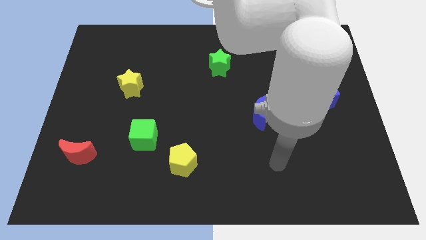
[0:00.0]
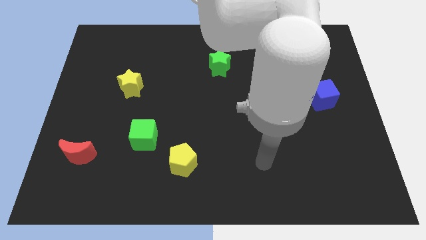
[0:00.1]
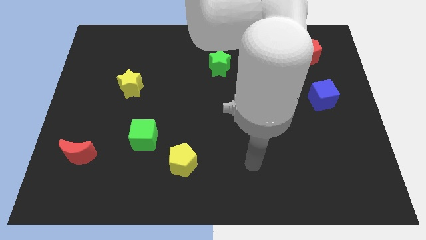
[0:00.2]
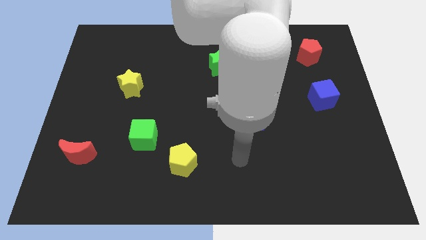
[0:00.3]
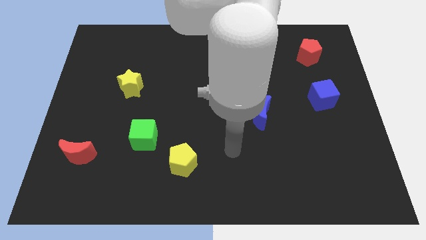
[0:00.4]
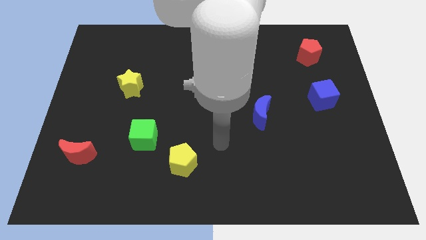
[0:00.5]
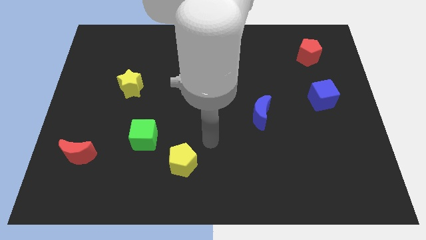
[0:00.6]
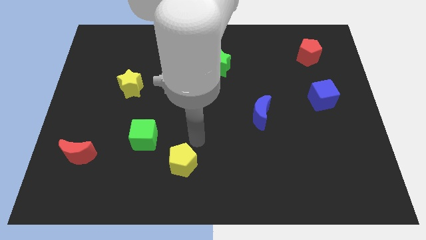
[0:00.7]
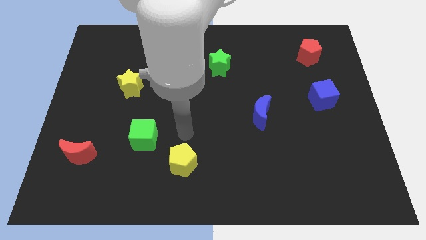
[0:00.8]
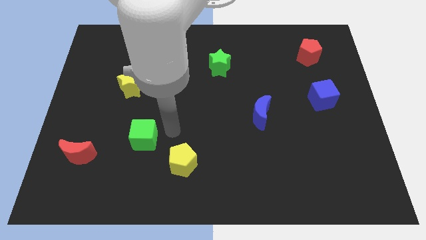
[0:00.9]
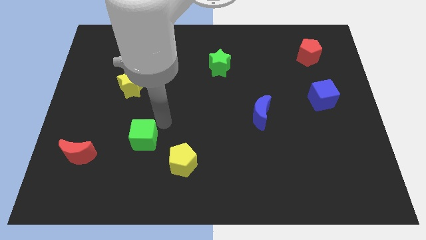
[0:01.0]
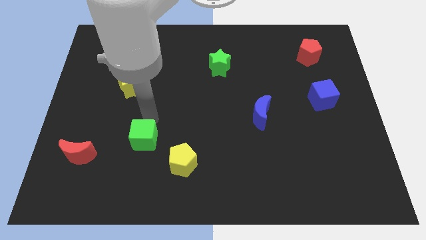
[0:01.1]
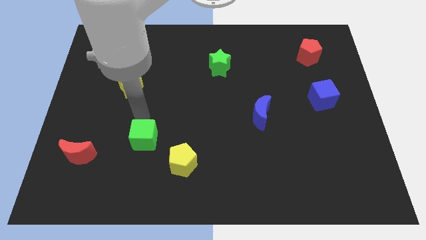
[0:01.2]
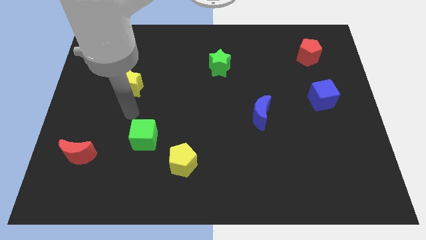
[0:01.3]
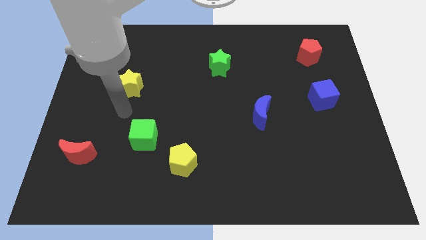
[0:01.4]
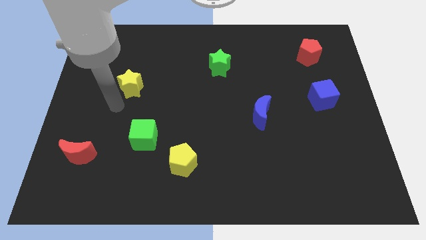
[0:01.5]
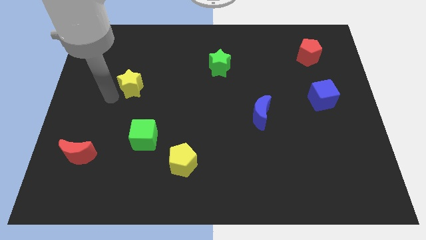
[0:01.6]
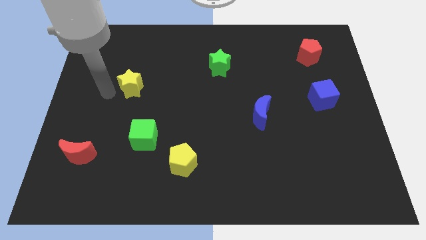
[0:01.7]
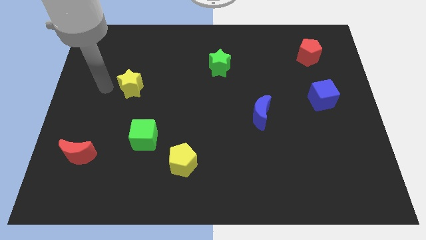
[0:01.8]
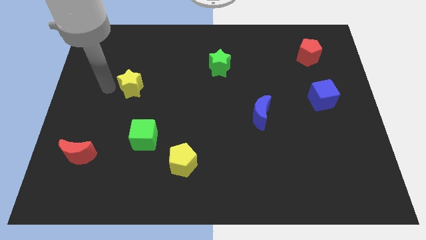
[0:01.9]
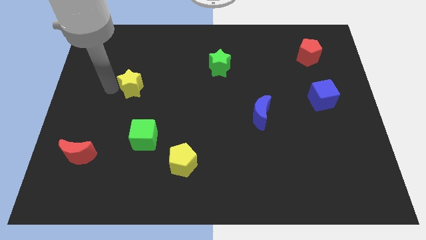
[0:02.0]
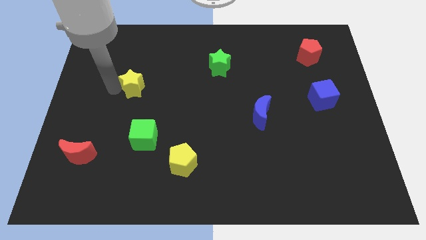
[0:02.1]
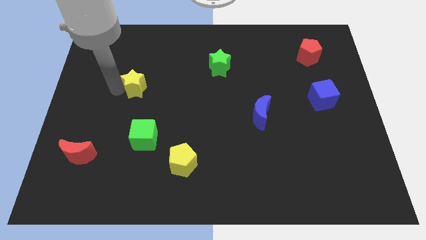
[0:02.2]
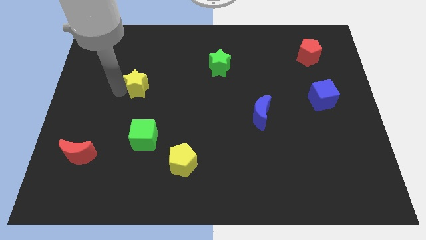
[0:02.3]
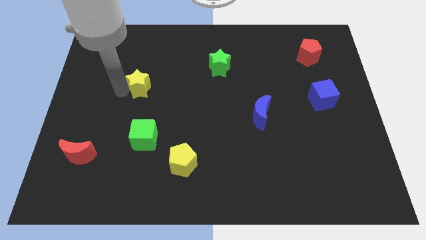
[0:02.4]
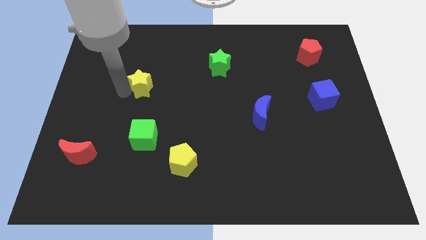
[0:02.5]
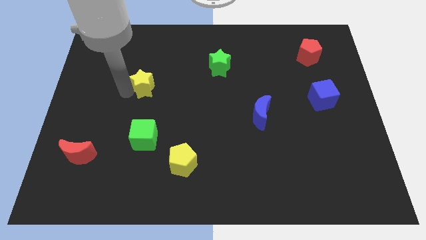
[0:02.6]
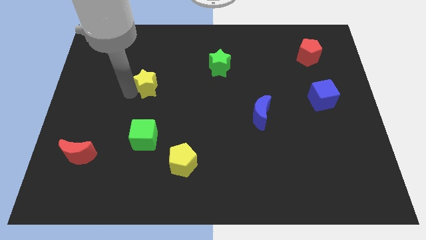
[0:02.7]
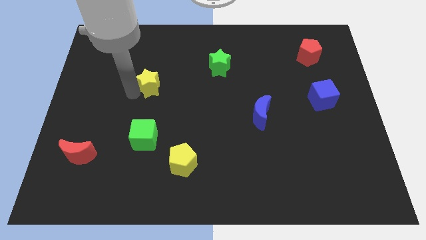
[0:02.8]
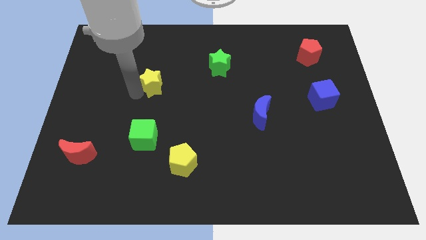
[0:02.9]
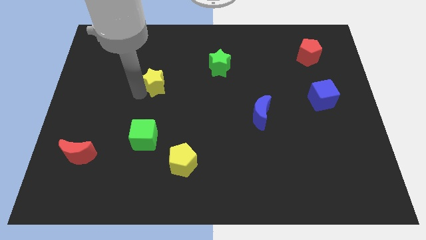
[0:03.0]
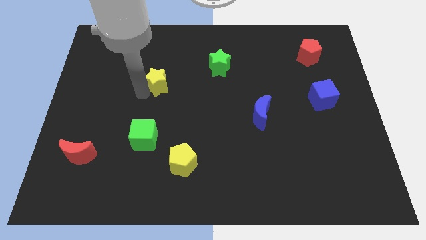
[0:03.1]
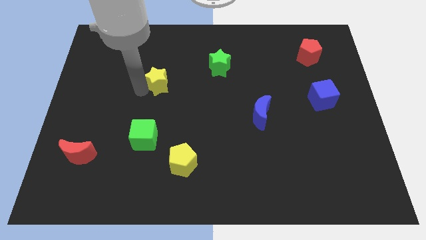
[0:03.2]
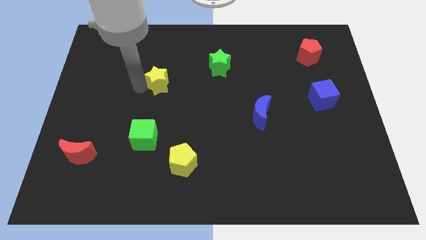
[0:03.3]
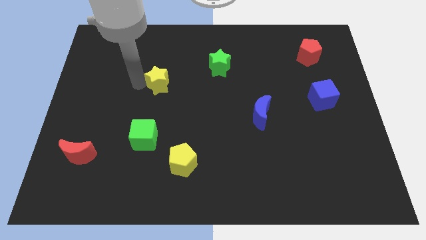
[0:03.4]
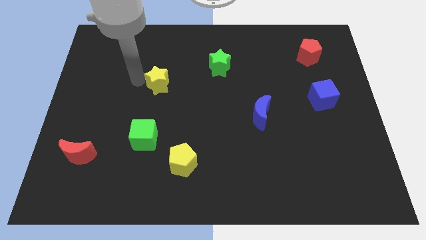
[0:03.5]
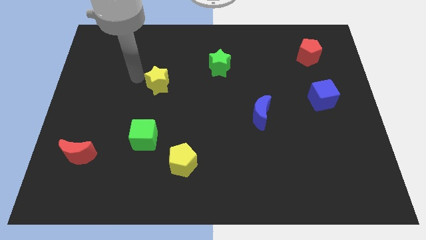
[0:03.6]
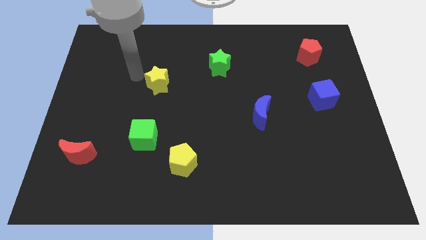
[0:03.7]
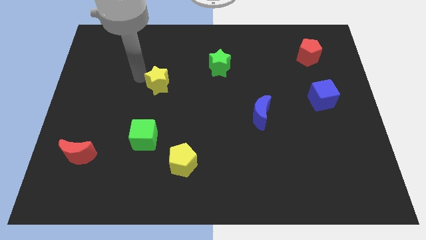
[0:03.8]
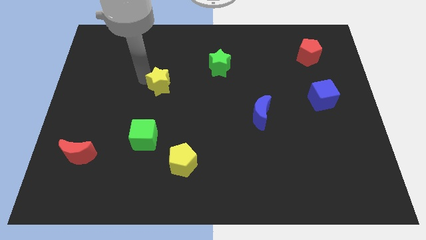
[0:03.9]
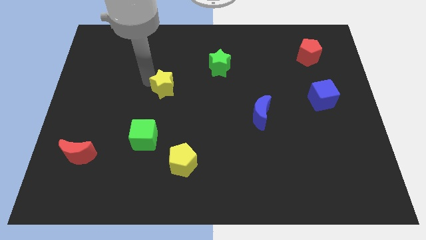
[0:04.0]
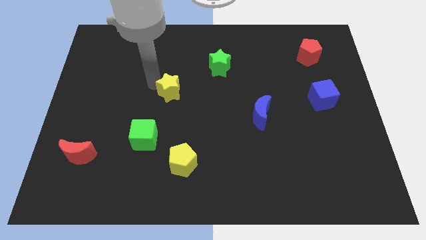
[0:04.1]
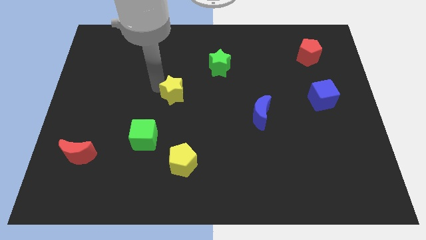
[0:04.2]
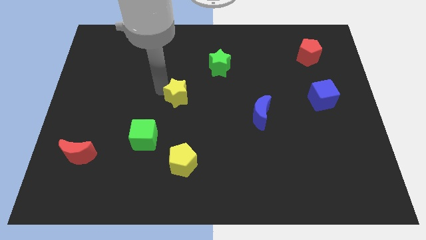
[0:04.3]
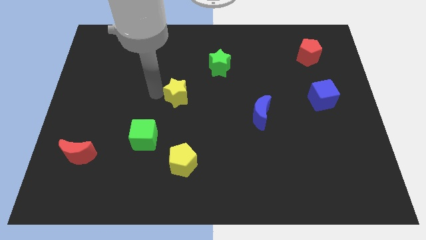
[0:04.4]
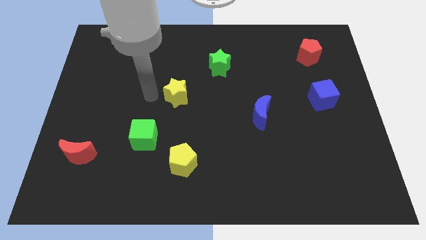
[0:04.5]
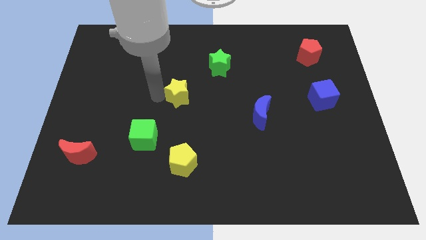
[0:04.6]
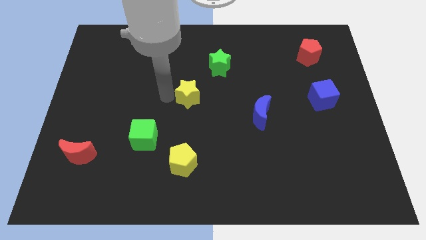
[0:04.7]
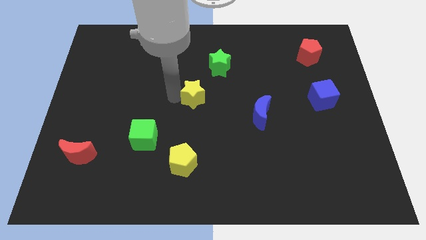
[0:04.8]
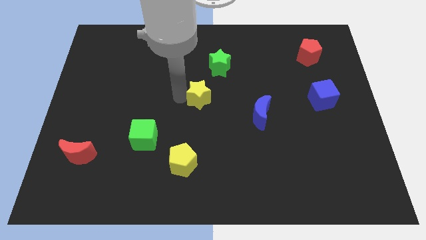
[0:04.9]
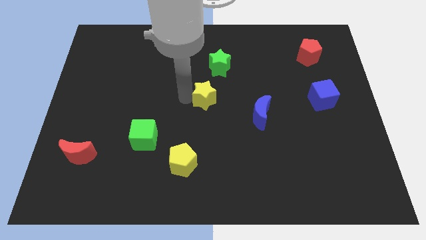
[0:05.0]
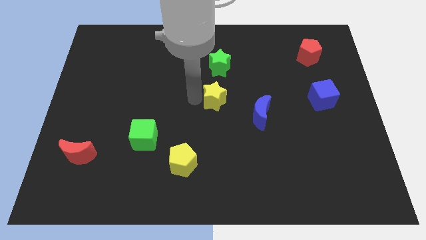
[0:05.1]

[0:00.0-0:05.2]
slide the yellow star to the top left of the blue moon
